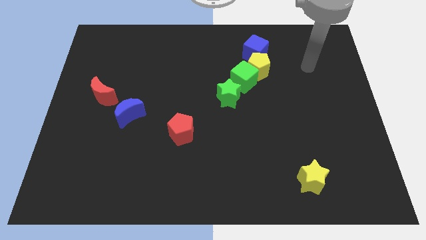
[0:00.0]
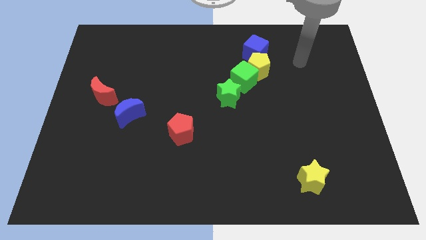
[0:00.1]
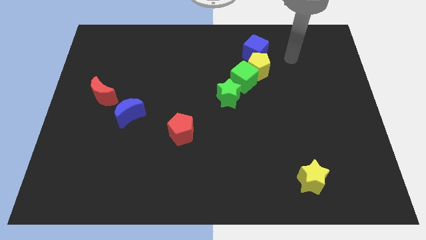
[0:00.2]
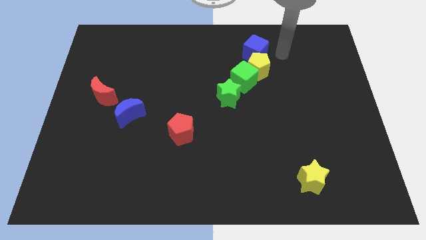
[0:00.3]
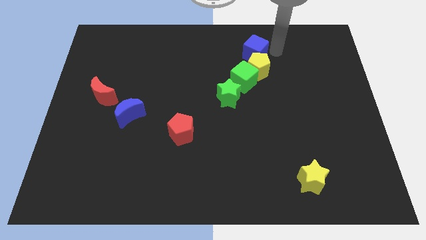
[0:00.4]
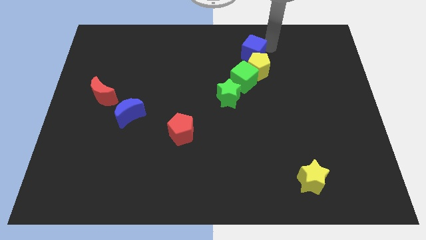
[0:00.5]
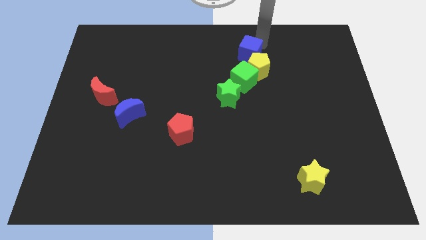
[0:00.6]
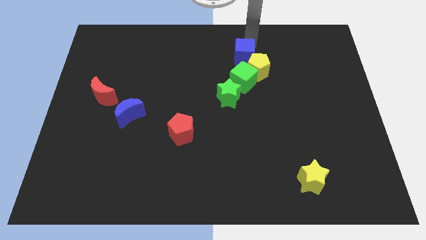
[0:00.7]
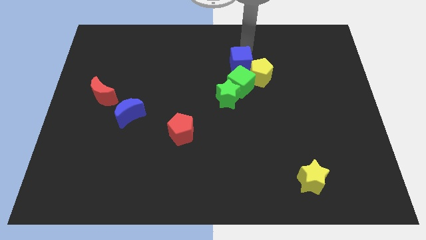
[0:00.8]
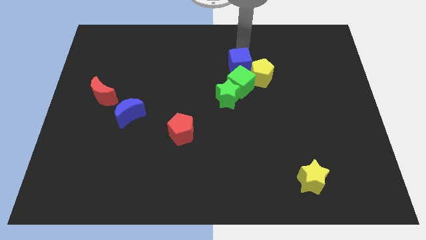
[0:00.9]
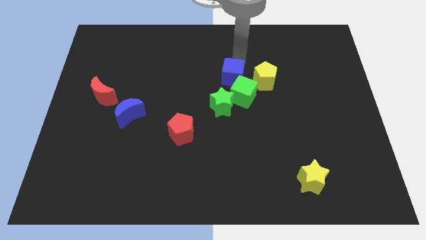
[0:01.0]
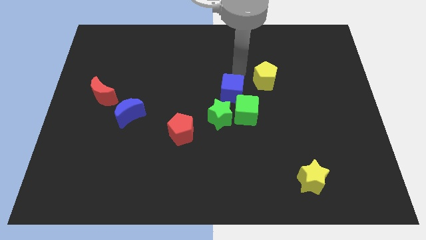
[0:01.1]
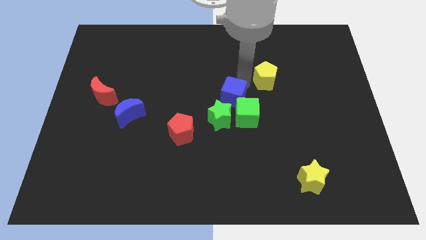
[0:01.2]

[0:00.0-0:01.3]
move the yellow pentagon away from the green cube and blue cube

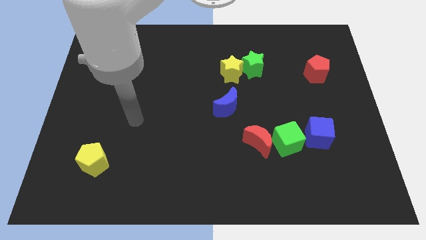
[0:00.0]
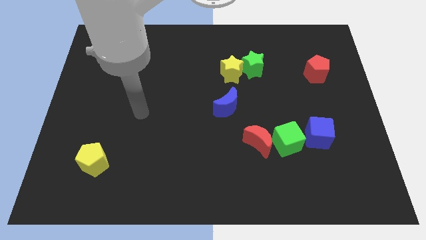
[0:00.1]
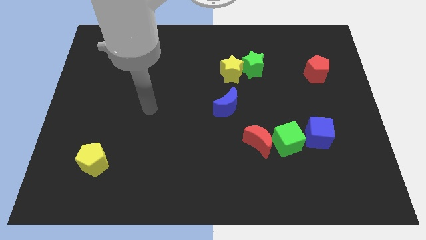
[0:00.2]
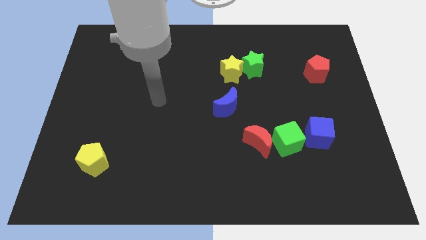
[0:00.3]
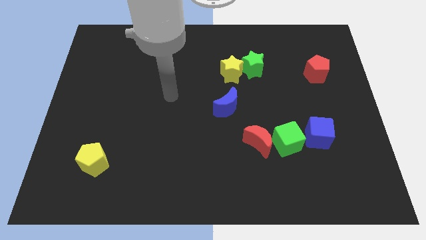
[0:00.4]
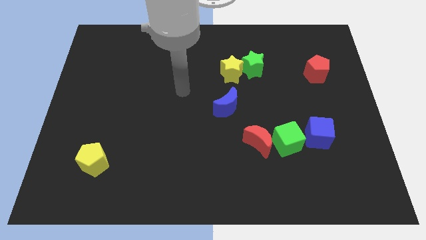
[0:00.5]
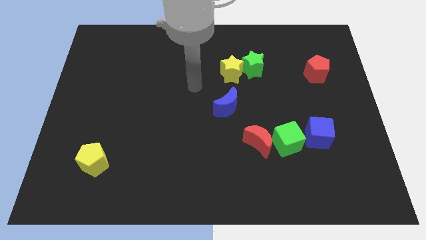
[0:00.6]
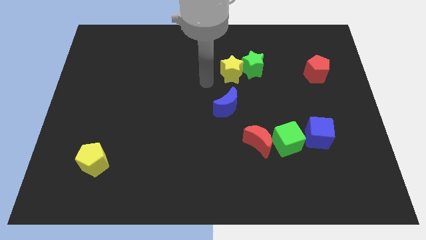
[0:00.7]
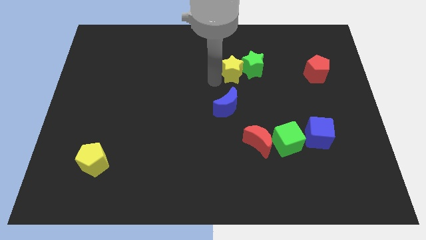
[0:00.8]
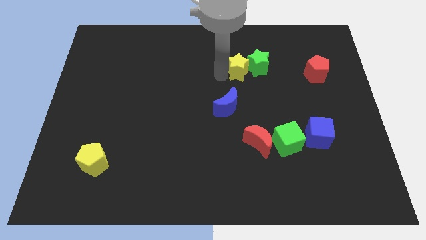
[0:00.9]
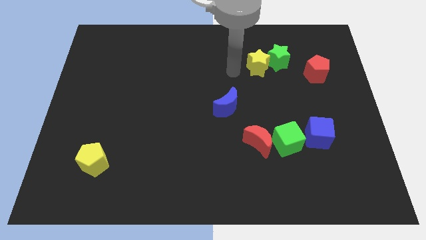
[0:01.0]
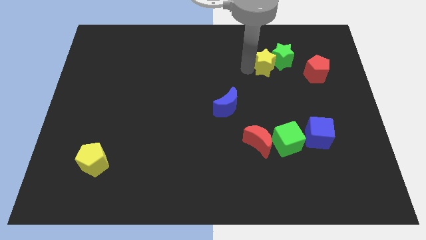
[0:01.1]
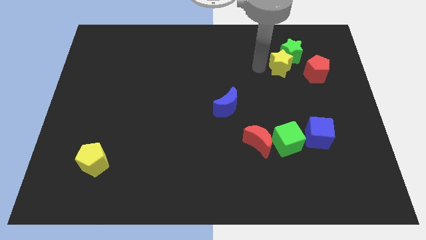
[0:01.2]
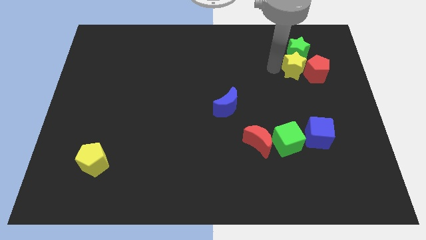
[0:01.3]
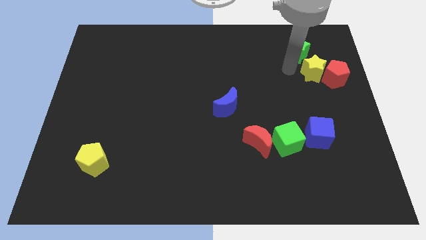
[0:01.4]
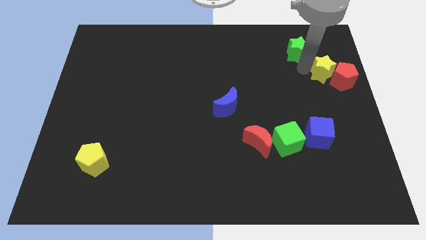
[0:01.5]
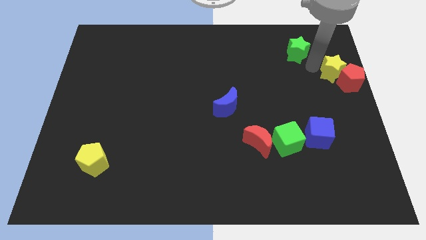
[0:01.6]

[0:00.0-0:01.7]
separate the green star from the yellow star

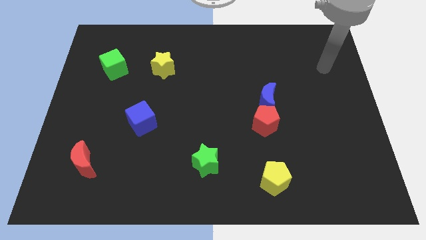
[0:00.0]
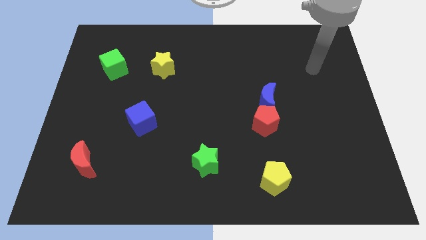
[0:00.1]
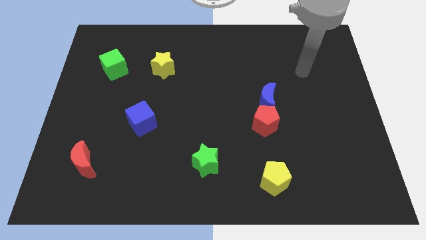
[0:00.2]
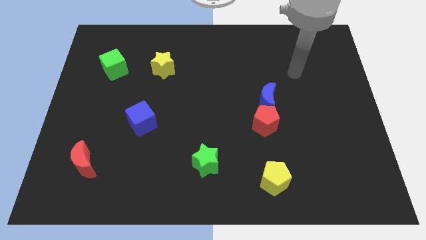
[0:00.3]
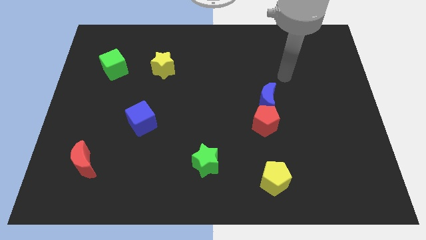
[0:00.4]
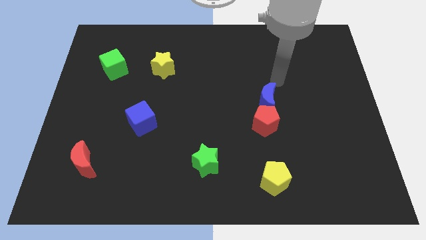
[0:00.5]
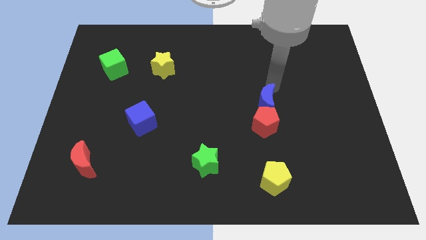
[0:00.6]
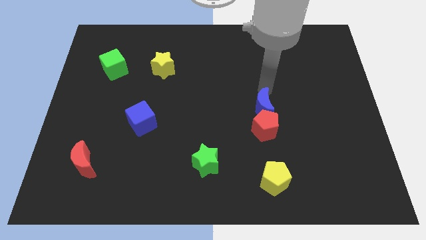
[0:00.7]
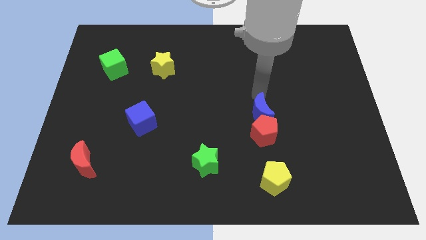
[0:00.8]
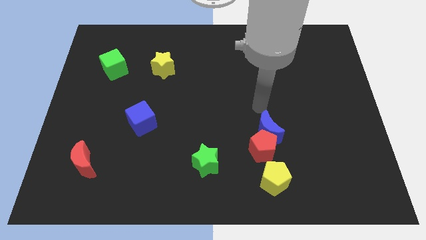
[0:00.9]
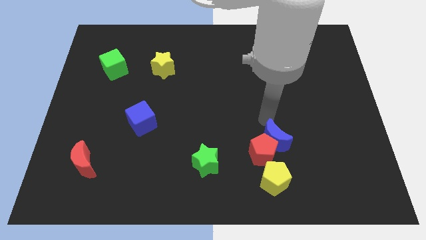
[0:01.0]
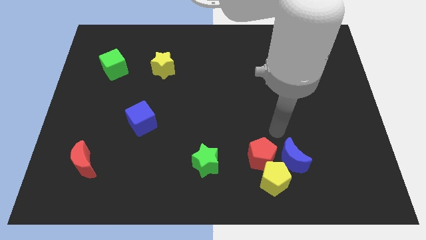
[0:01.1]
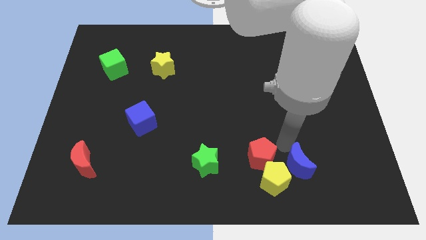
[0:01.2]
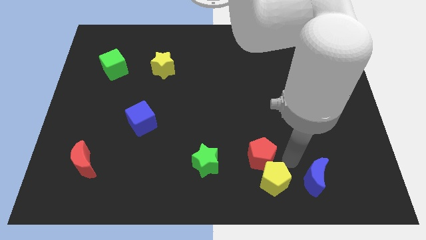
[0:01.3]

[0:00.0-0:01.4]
pull the red pentagon apart from the blue moon

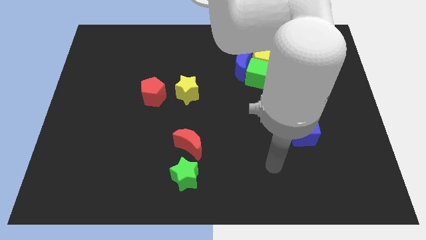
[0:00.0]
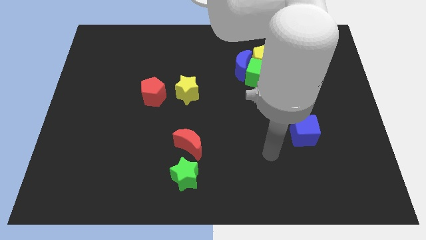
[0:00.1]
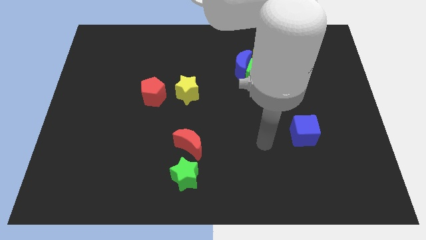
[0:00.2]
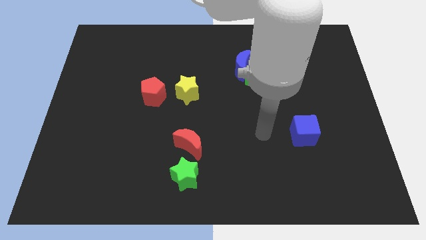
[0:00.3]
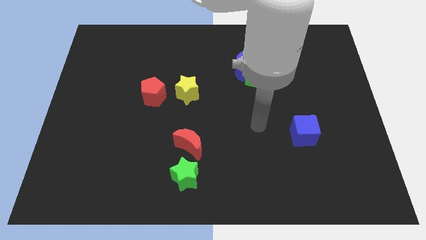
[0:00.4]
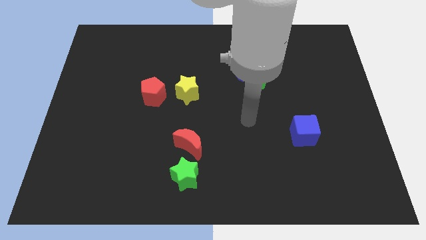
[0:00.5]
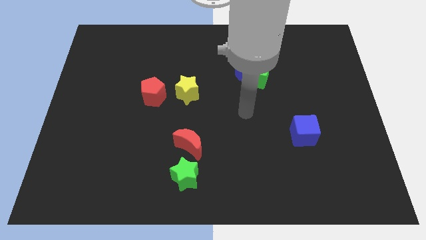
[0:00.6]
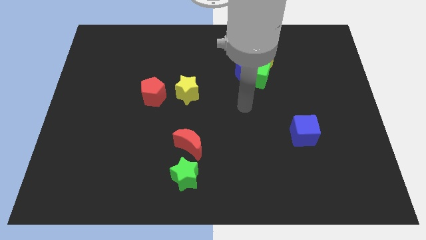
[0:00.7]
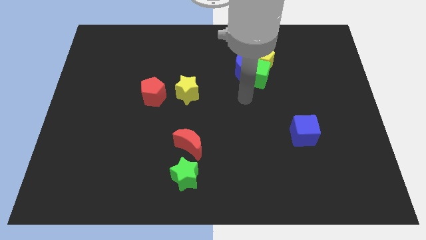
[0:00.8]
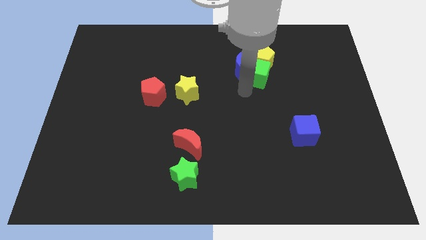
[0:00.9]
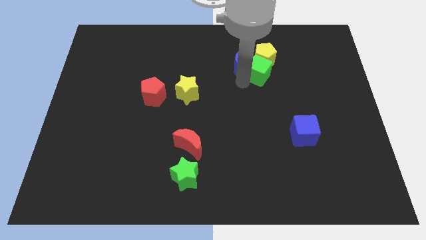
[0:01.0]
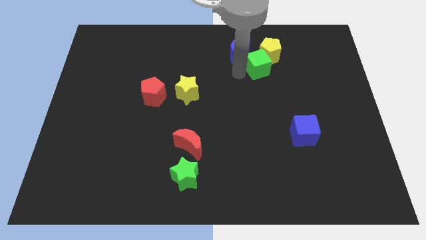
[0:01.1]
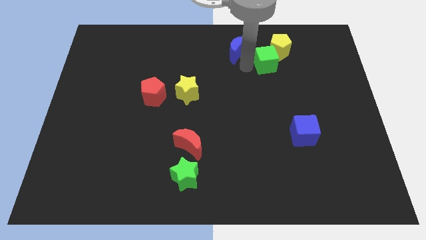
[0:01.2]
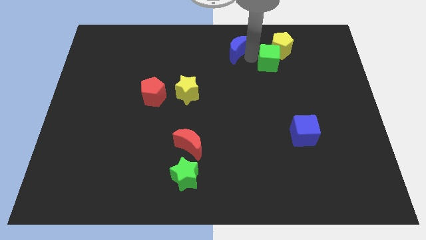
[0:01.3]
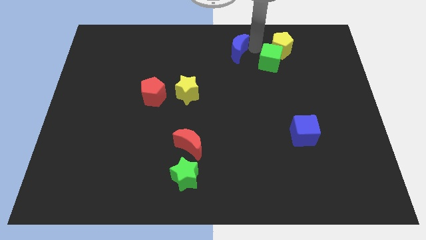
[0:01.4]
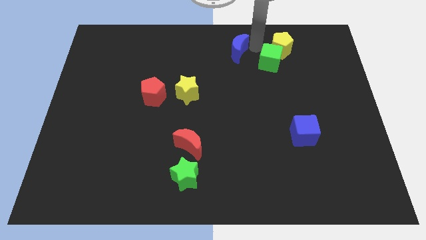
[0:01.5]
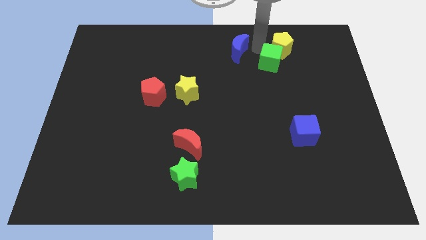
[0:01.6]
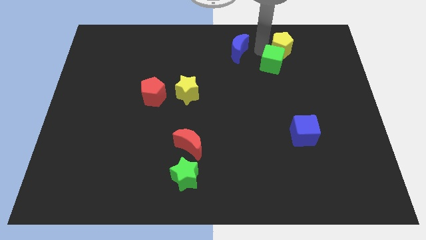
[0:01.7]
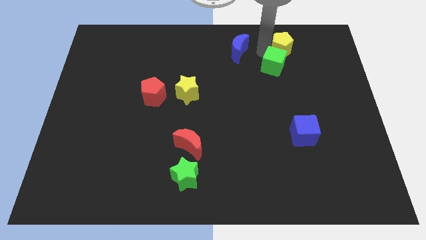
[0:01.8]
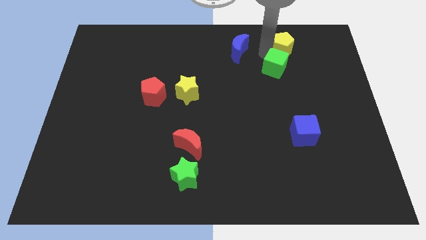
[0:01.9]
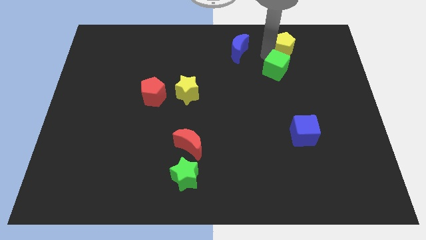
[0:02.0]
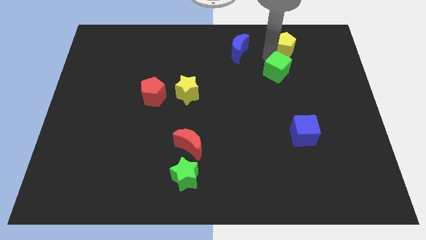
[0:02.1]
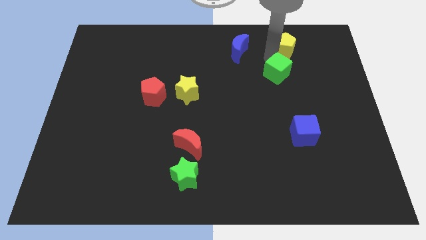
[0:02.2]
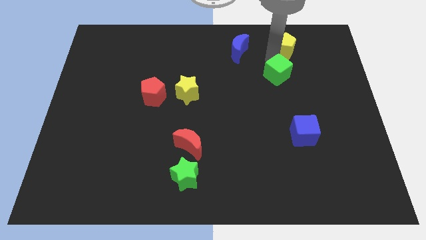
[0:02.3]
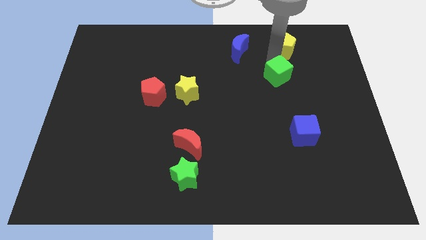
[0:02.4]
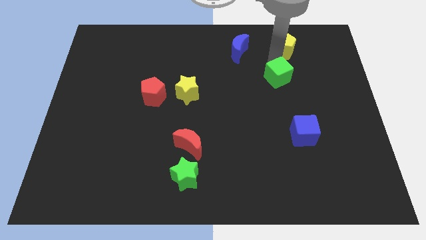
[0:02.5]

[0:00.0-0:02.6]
pull the green cube apart from the blue moon and yellow pentagon

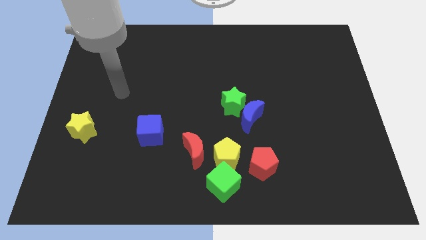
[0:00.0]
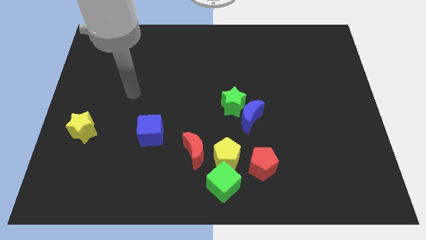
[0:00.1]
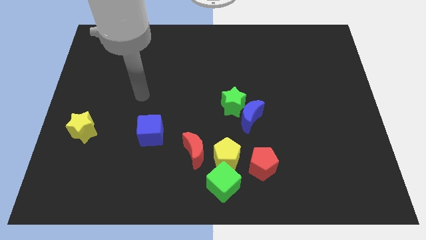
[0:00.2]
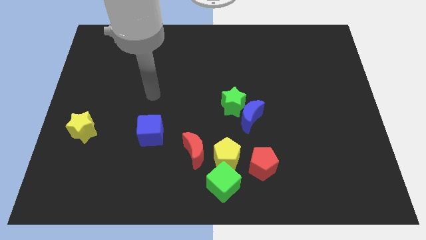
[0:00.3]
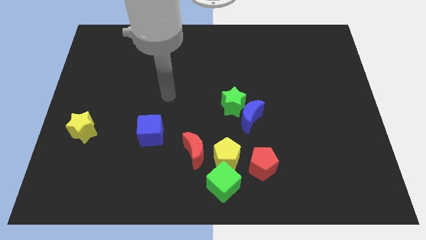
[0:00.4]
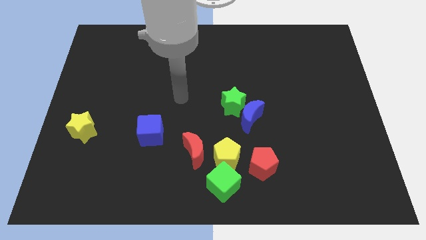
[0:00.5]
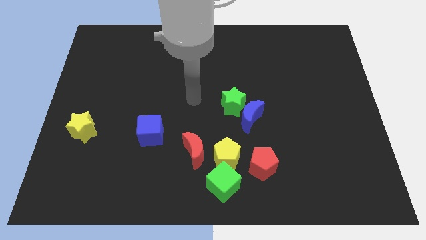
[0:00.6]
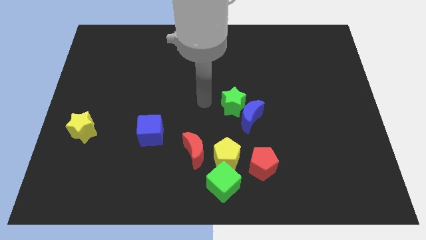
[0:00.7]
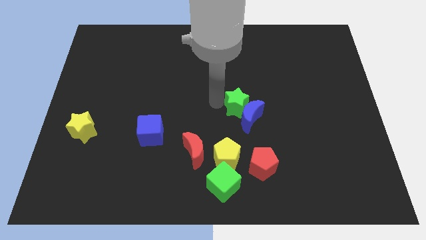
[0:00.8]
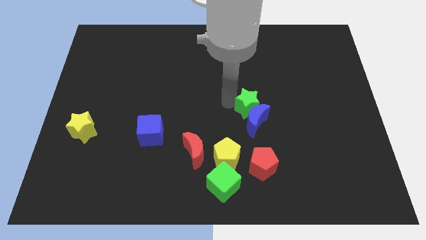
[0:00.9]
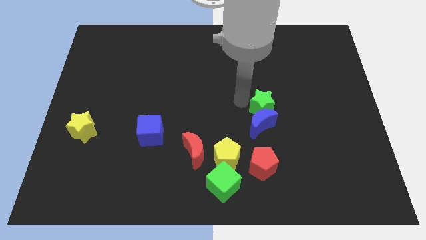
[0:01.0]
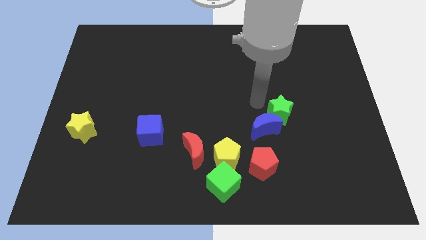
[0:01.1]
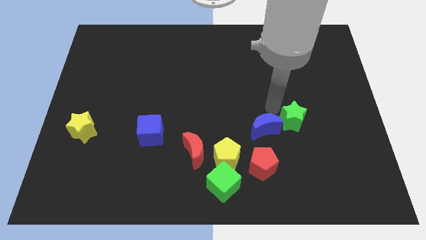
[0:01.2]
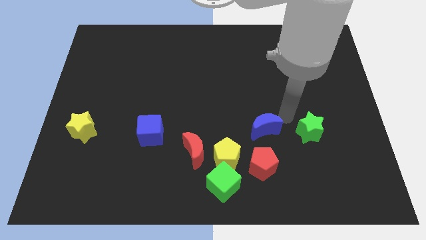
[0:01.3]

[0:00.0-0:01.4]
move the blue moon away from the green star

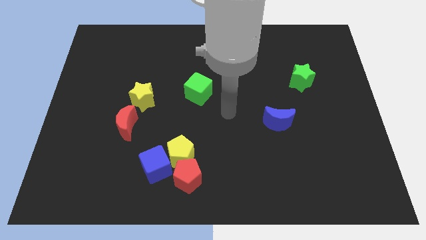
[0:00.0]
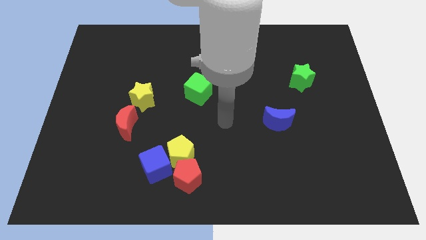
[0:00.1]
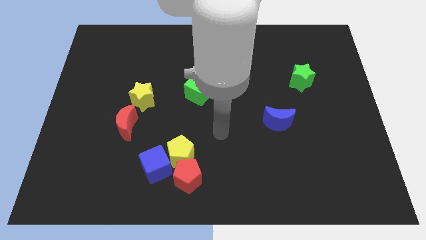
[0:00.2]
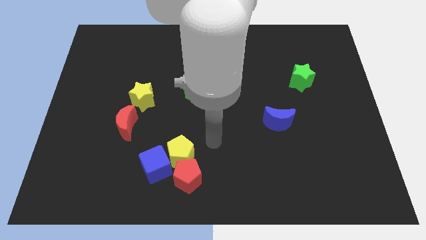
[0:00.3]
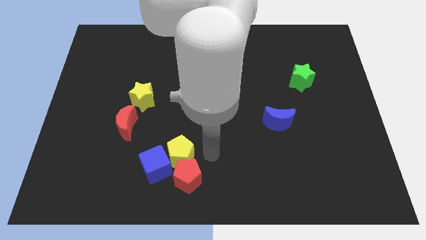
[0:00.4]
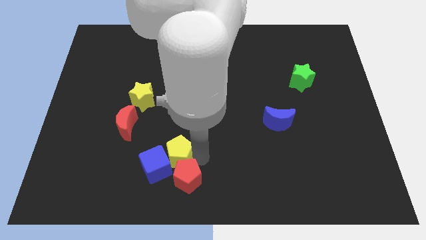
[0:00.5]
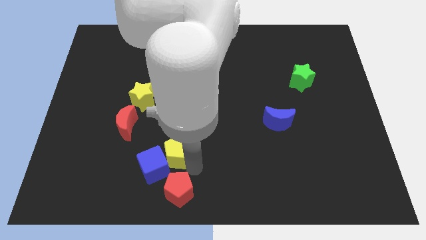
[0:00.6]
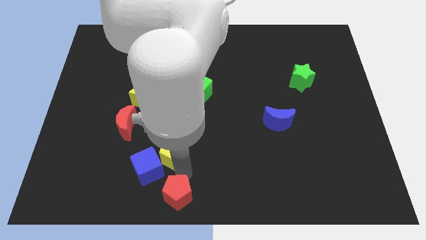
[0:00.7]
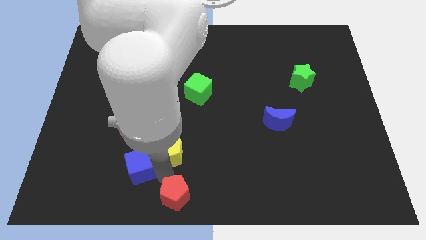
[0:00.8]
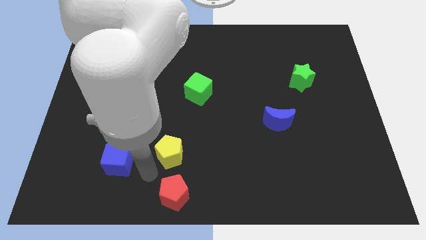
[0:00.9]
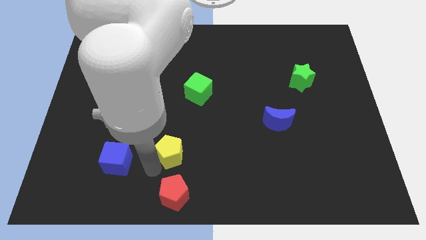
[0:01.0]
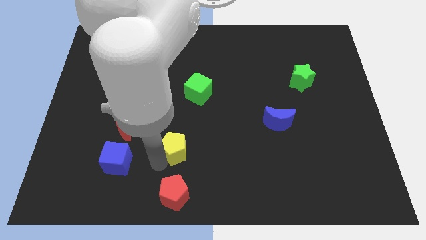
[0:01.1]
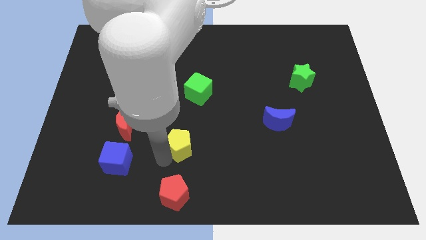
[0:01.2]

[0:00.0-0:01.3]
move the yellow pentagon away from the red pentagon and blue cube
